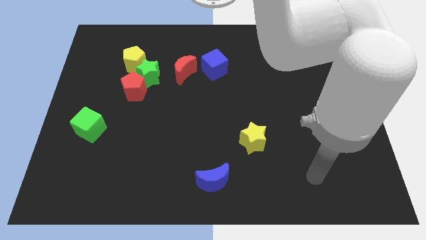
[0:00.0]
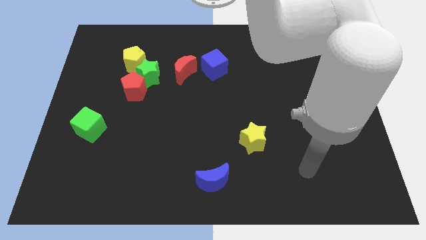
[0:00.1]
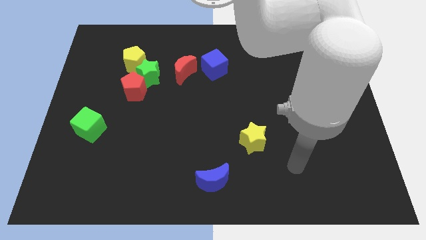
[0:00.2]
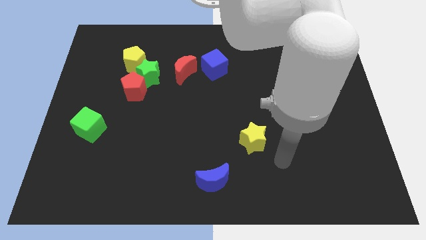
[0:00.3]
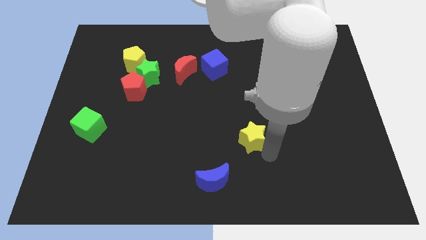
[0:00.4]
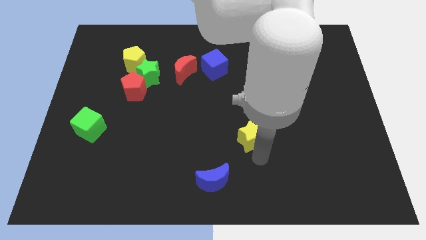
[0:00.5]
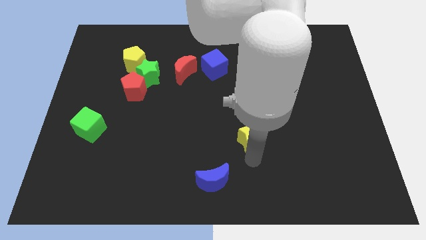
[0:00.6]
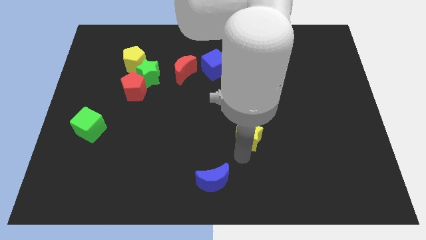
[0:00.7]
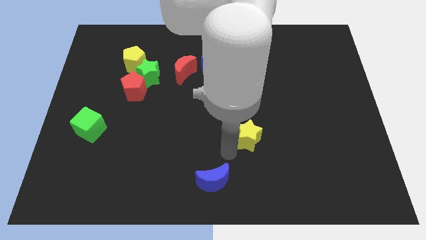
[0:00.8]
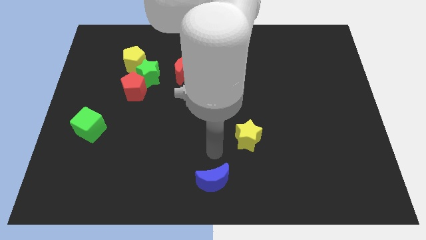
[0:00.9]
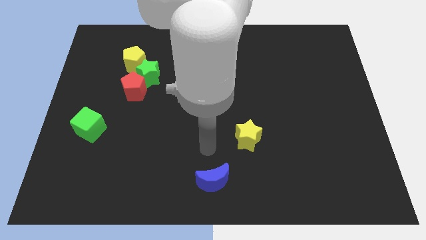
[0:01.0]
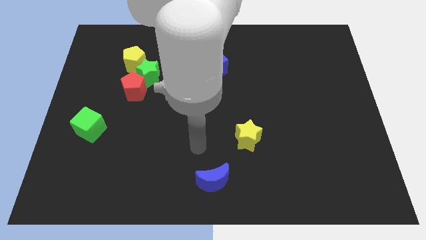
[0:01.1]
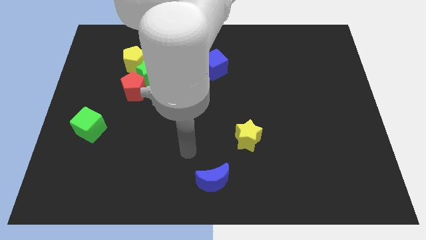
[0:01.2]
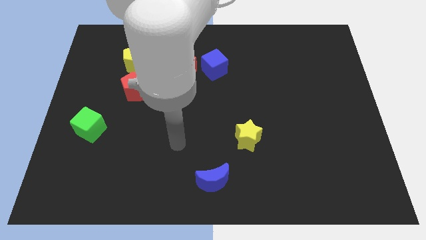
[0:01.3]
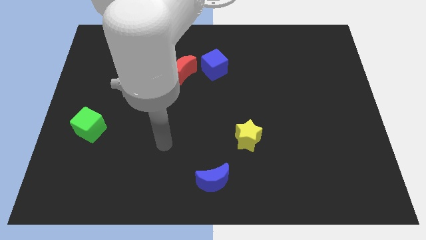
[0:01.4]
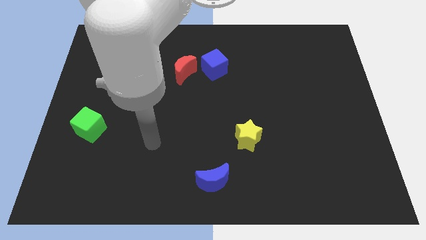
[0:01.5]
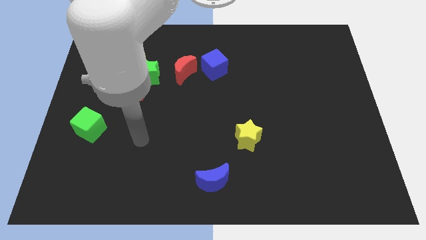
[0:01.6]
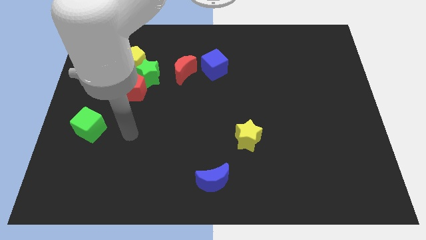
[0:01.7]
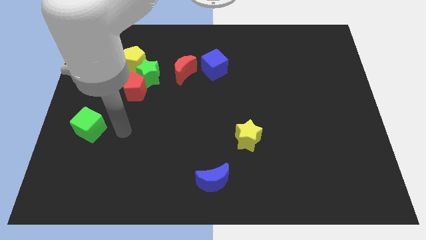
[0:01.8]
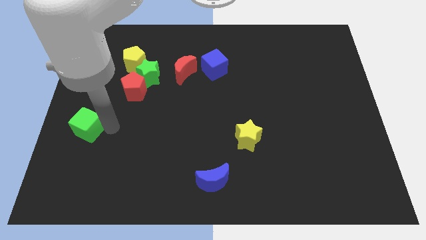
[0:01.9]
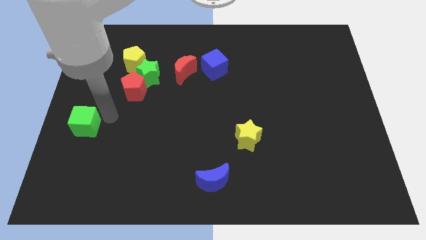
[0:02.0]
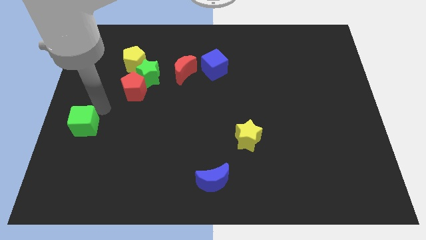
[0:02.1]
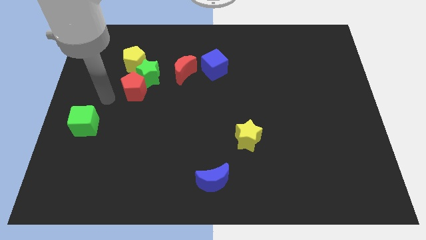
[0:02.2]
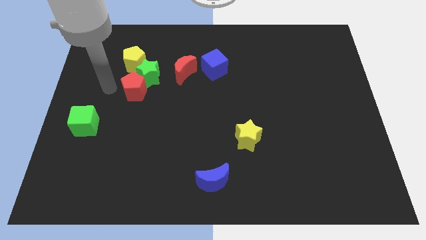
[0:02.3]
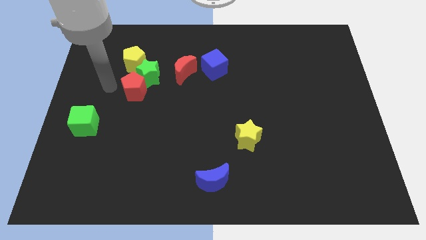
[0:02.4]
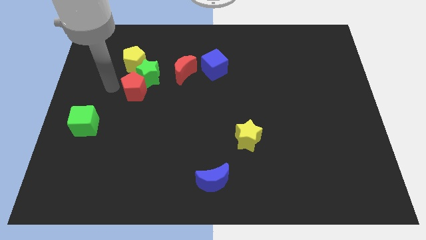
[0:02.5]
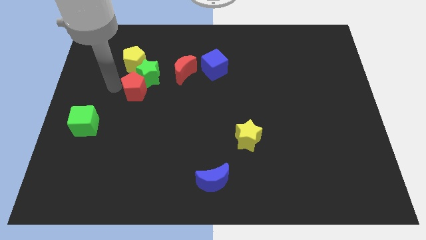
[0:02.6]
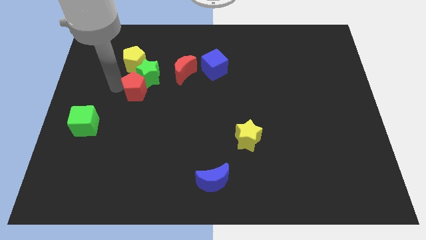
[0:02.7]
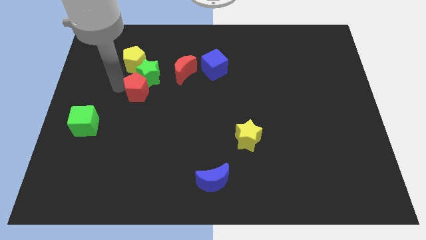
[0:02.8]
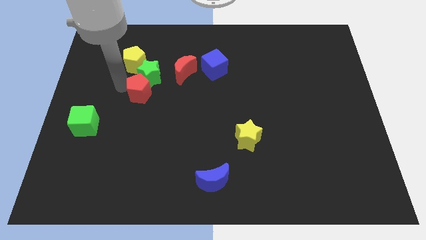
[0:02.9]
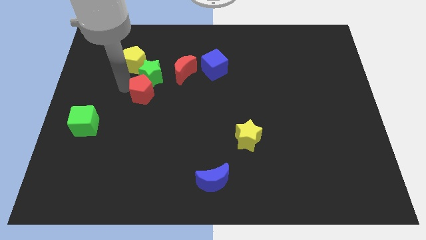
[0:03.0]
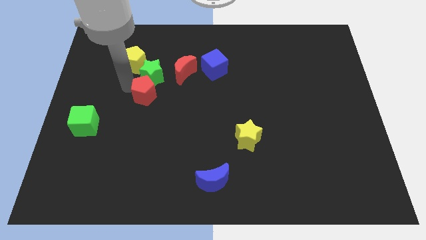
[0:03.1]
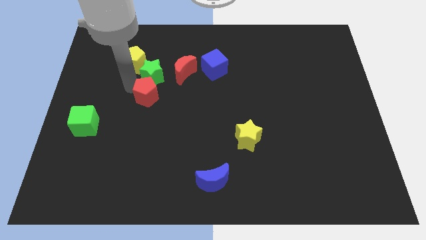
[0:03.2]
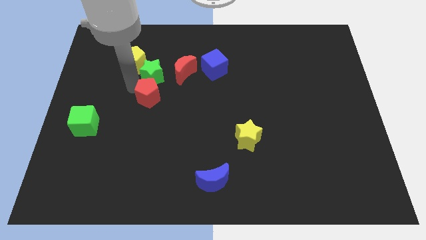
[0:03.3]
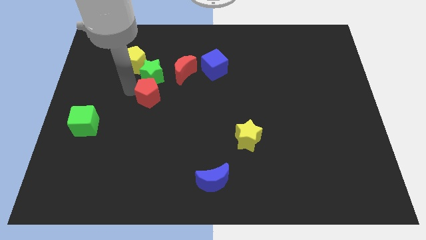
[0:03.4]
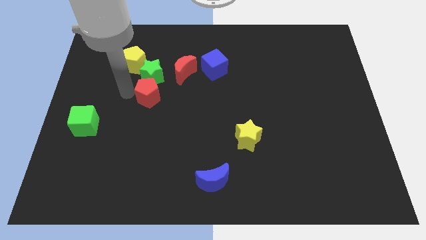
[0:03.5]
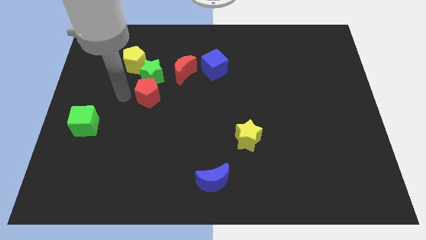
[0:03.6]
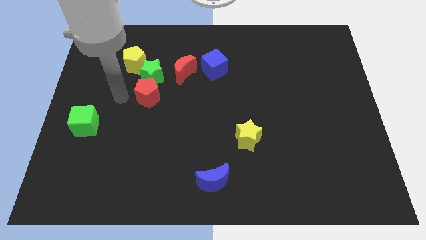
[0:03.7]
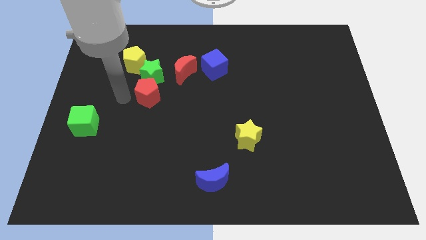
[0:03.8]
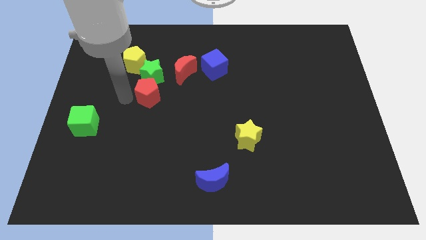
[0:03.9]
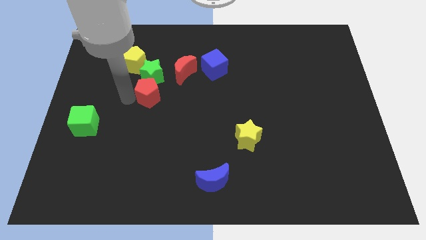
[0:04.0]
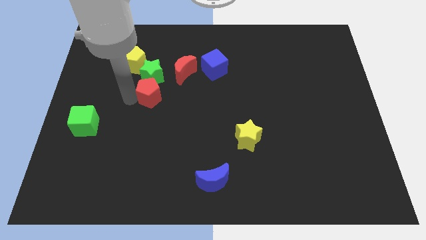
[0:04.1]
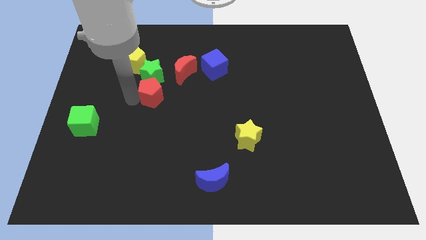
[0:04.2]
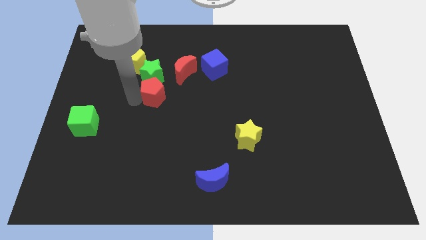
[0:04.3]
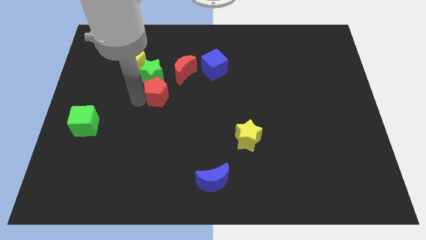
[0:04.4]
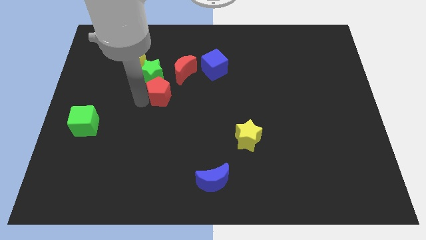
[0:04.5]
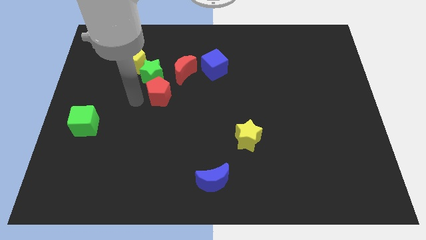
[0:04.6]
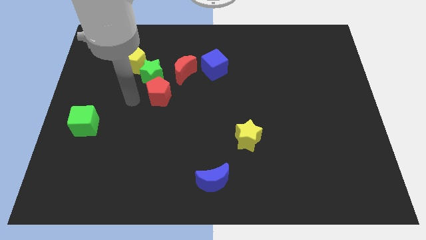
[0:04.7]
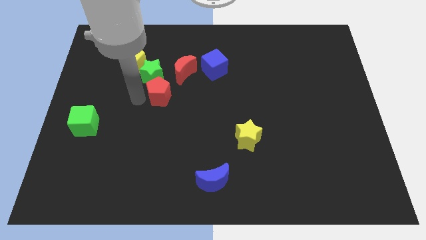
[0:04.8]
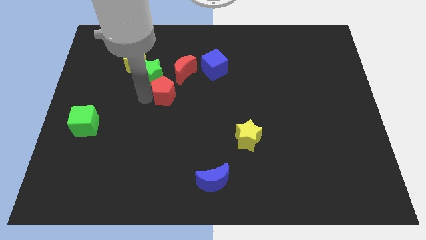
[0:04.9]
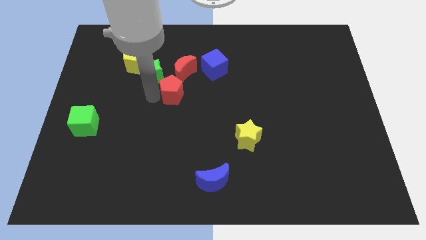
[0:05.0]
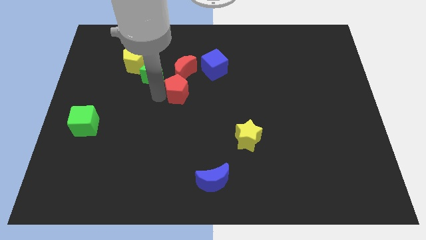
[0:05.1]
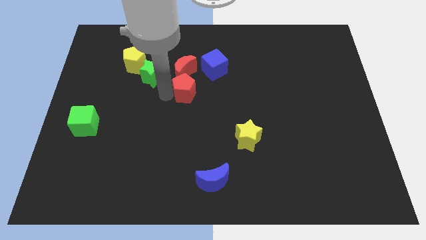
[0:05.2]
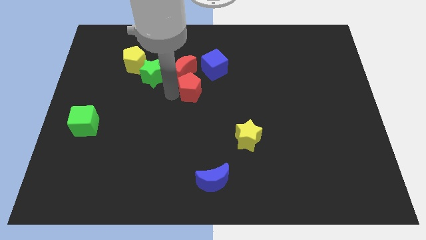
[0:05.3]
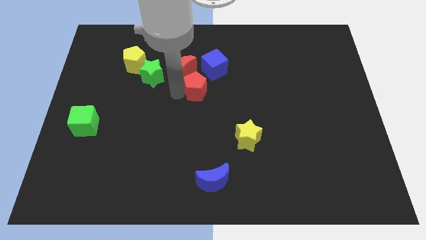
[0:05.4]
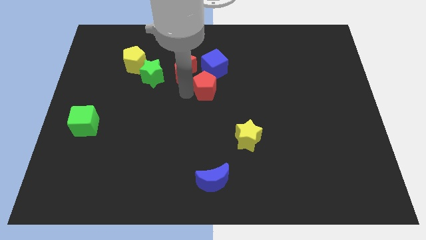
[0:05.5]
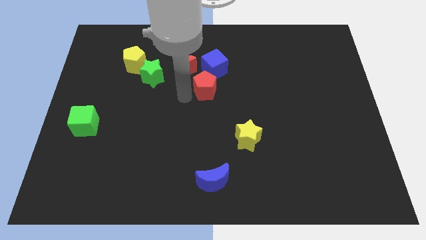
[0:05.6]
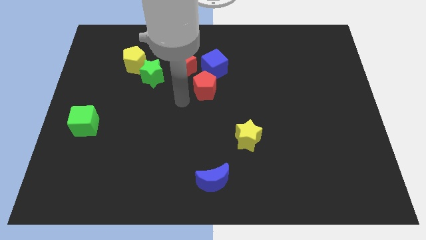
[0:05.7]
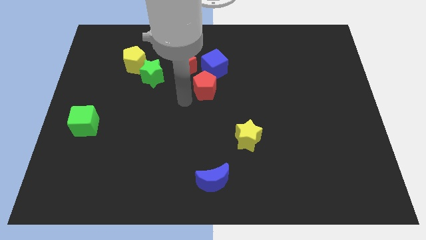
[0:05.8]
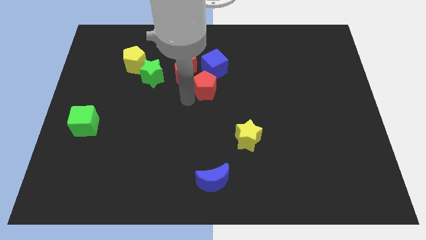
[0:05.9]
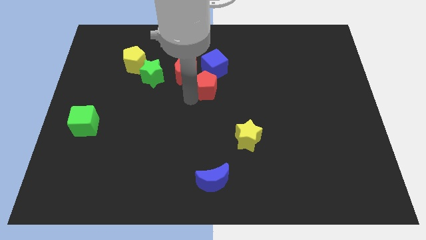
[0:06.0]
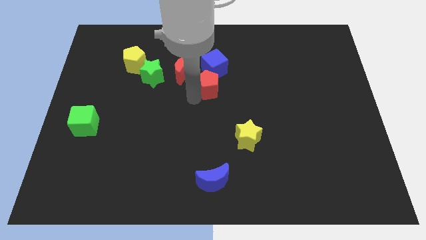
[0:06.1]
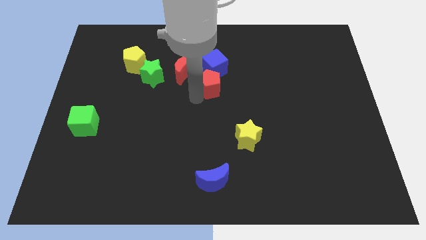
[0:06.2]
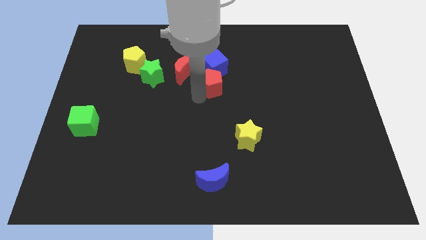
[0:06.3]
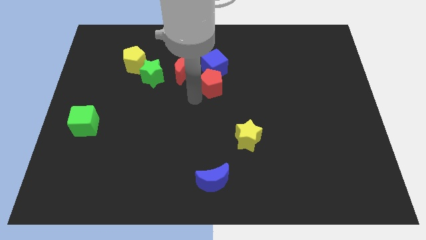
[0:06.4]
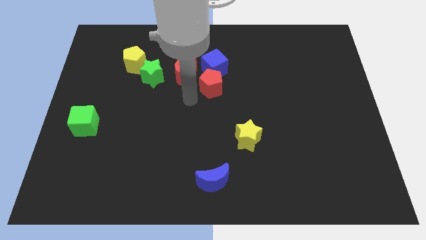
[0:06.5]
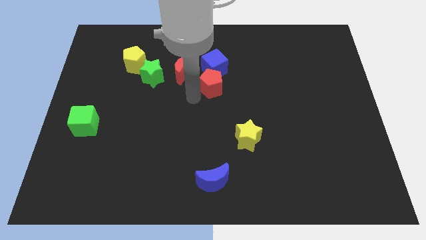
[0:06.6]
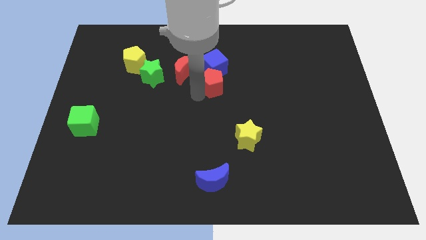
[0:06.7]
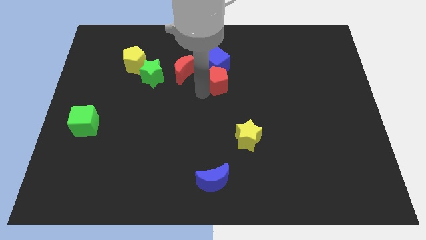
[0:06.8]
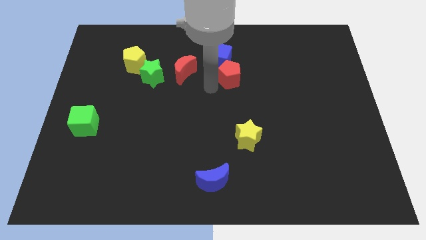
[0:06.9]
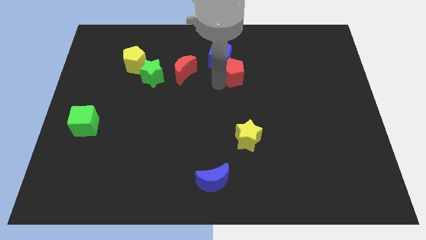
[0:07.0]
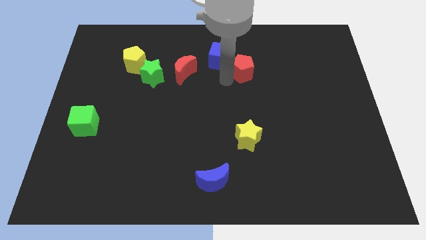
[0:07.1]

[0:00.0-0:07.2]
put the red pentagon just right of the blue cube
